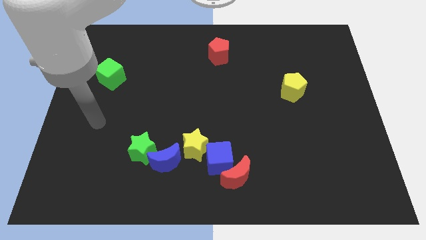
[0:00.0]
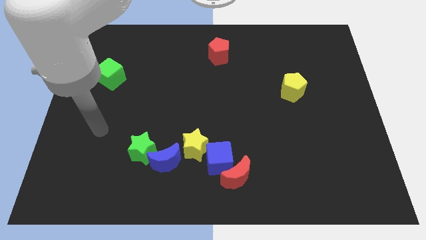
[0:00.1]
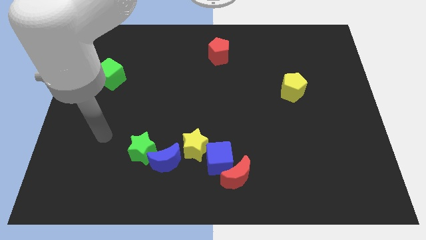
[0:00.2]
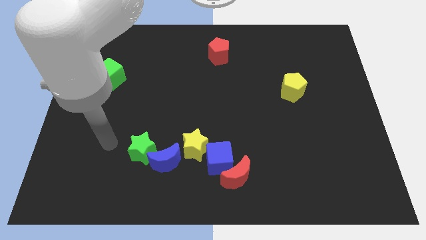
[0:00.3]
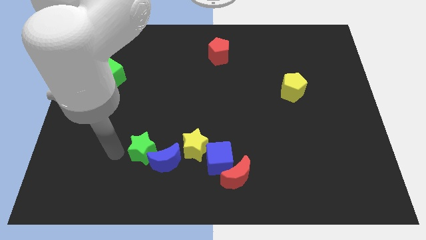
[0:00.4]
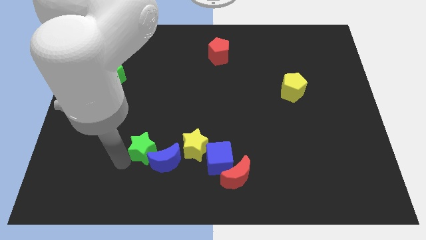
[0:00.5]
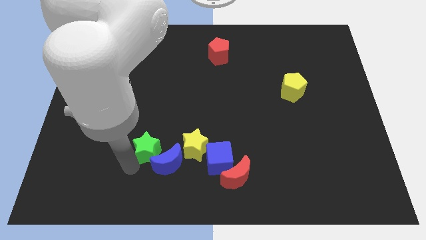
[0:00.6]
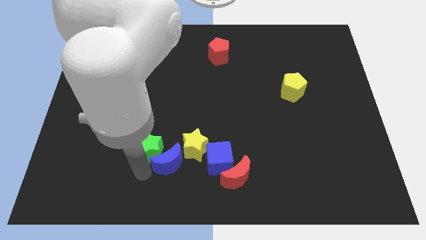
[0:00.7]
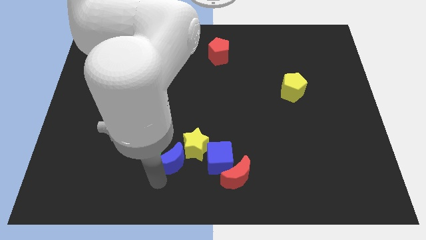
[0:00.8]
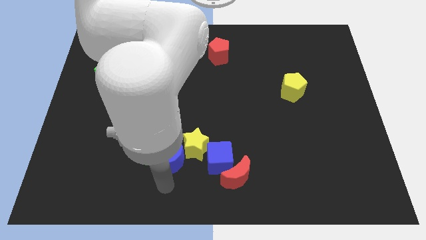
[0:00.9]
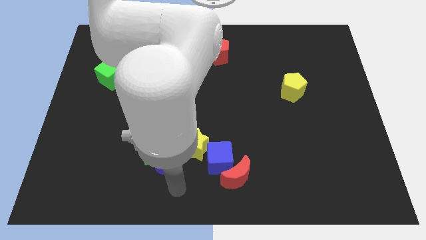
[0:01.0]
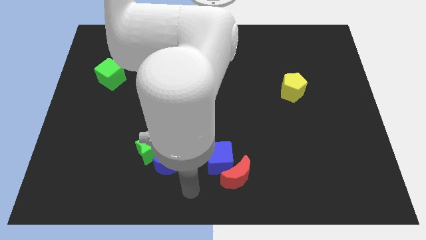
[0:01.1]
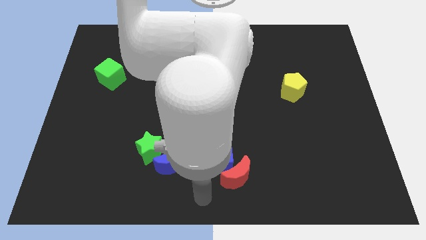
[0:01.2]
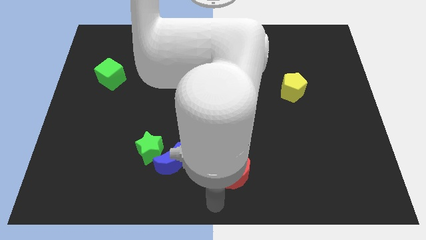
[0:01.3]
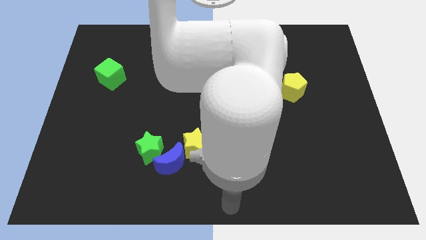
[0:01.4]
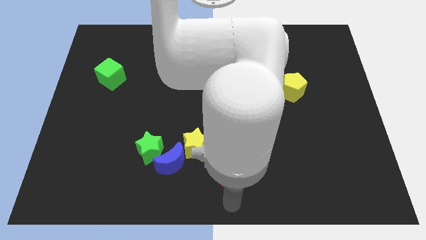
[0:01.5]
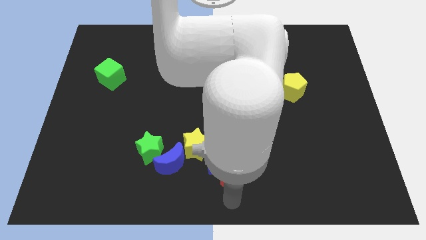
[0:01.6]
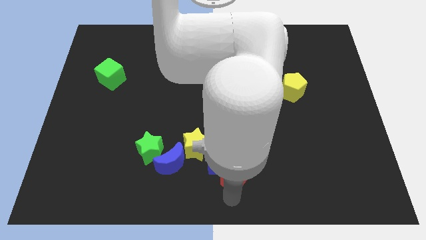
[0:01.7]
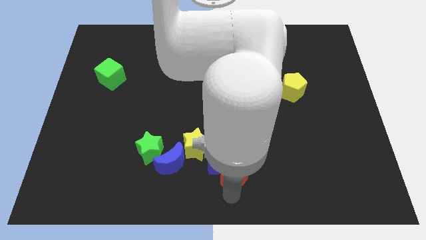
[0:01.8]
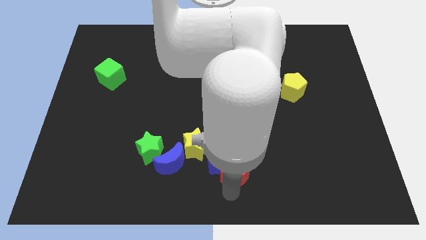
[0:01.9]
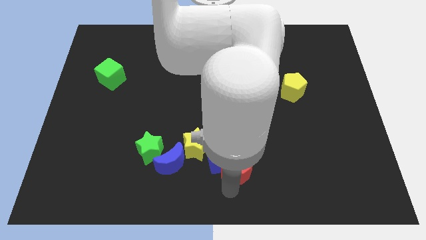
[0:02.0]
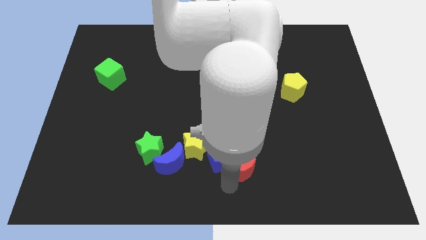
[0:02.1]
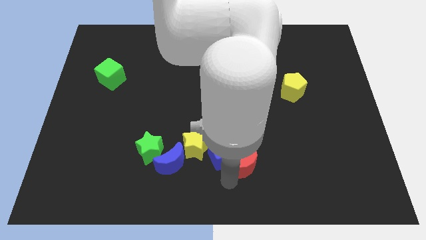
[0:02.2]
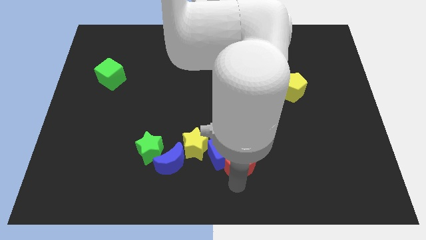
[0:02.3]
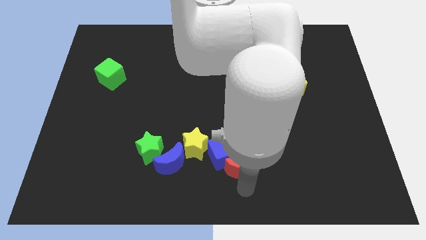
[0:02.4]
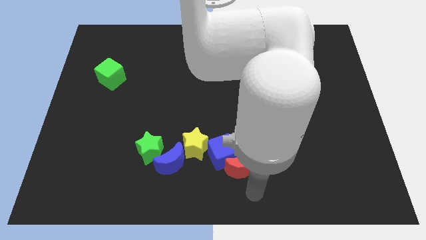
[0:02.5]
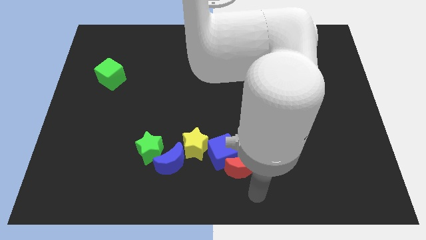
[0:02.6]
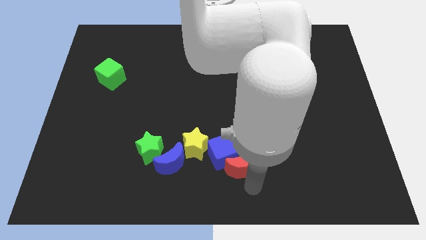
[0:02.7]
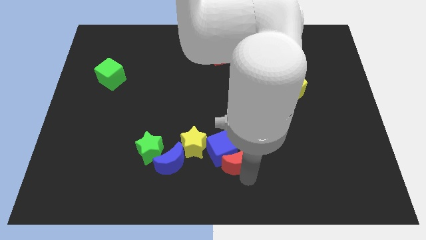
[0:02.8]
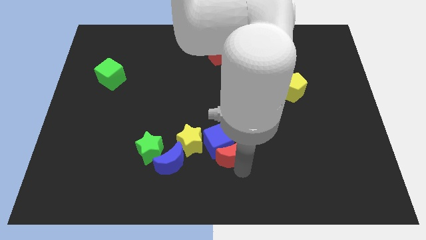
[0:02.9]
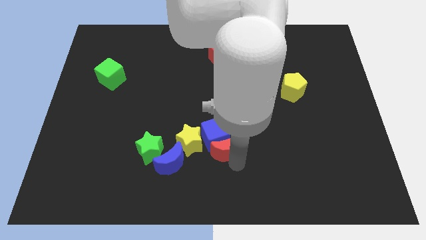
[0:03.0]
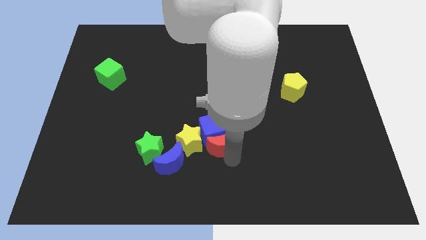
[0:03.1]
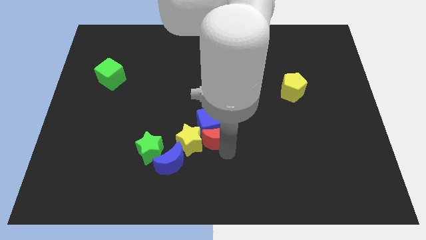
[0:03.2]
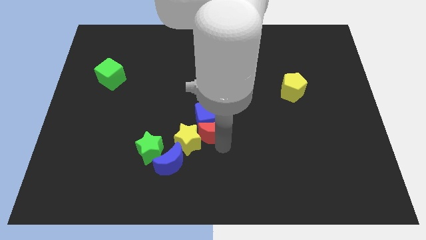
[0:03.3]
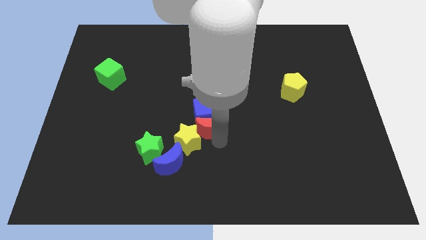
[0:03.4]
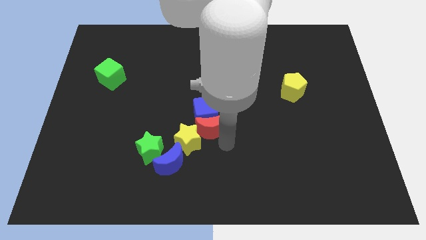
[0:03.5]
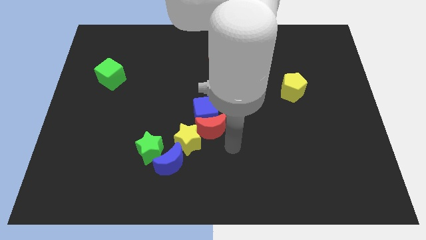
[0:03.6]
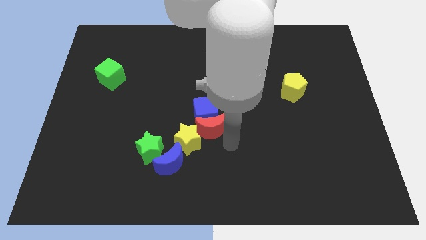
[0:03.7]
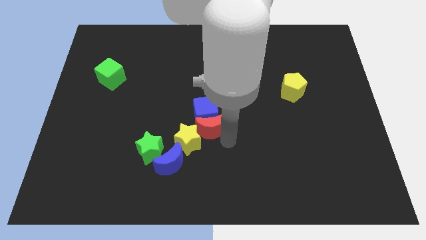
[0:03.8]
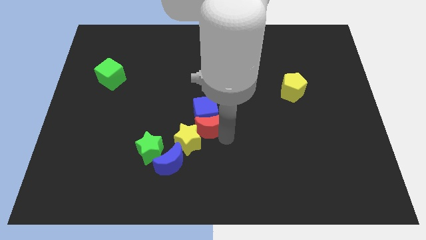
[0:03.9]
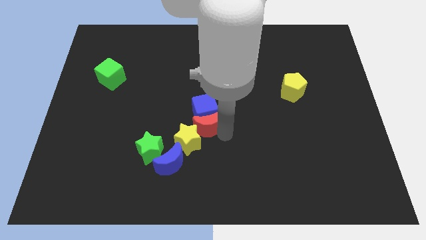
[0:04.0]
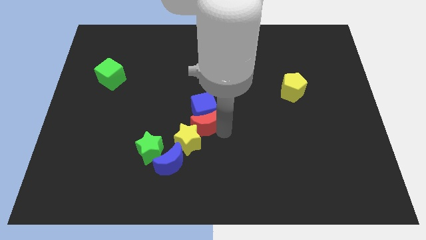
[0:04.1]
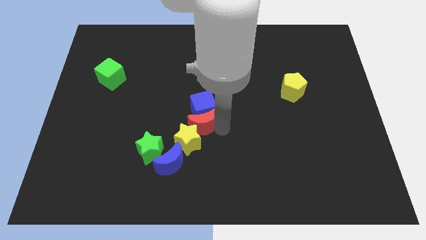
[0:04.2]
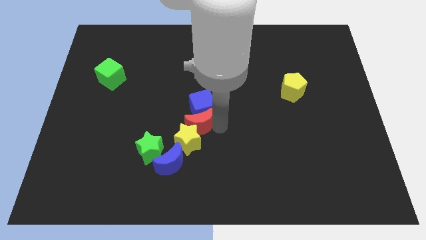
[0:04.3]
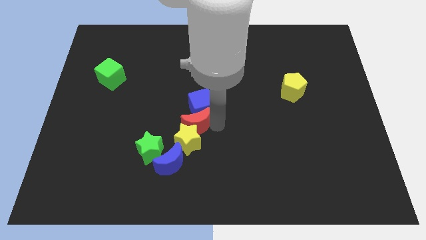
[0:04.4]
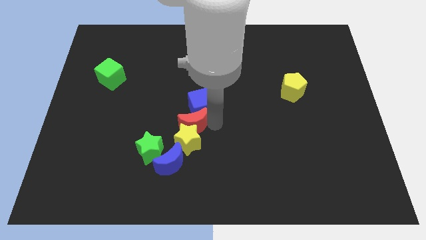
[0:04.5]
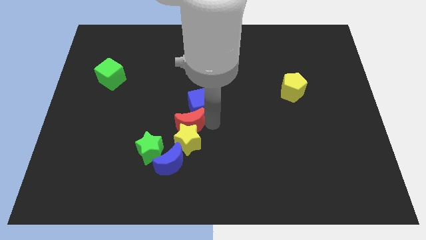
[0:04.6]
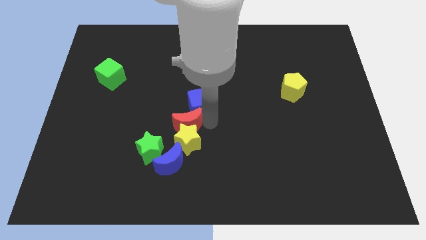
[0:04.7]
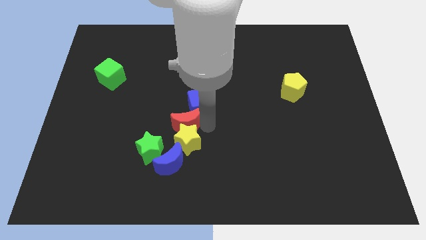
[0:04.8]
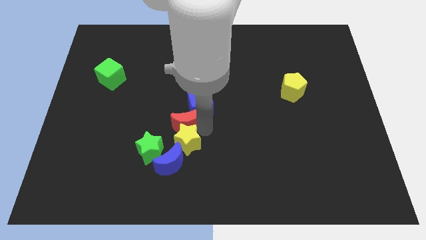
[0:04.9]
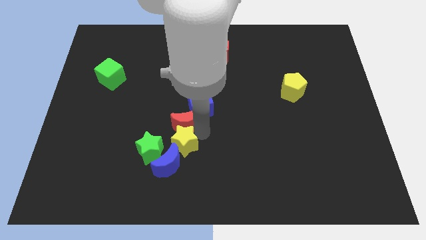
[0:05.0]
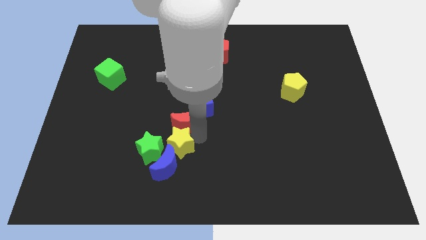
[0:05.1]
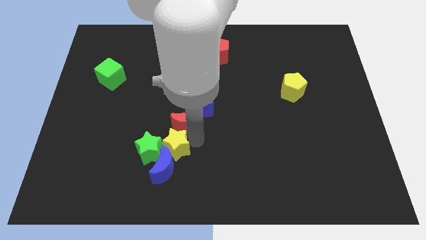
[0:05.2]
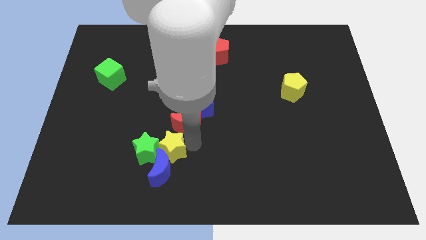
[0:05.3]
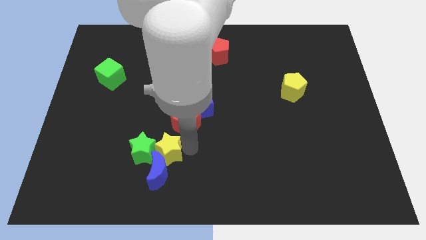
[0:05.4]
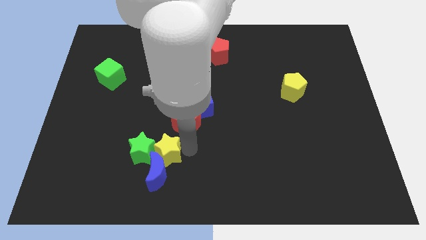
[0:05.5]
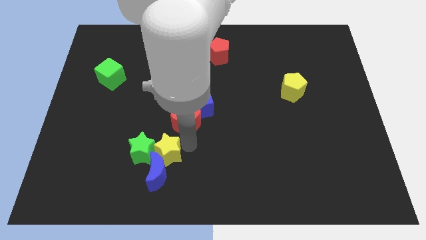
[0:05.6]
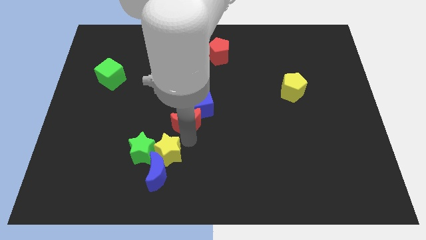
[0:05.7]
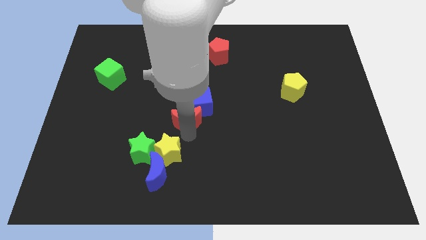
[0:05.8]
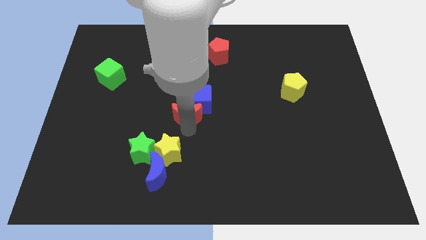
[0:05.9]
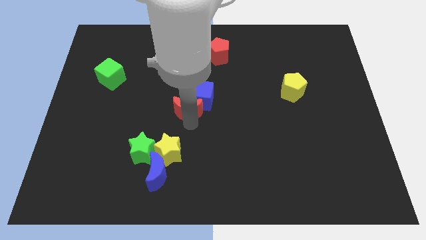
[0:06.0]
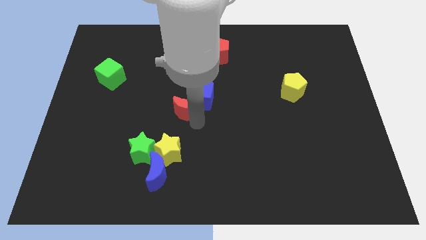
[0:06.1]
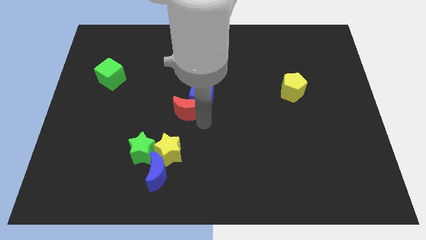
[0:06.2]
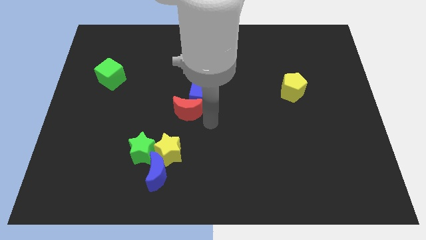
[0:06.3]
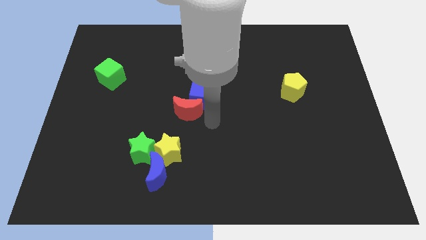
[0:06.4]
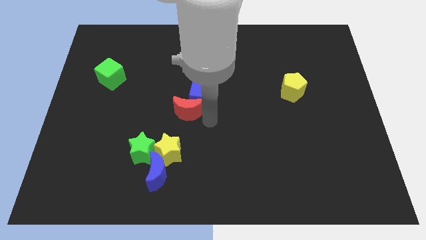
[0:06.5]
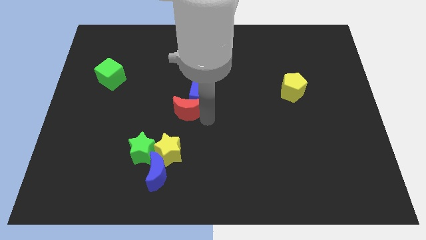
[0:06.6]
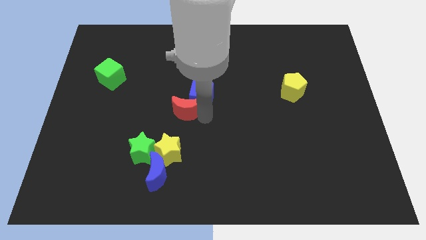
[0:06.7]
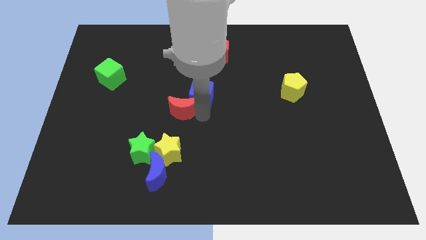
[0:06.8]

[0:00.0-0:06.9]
push the red moon up and to the left diagonally

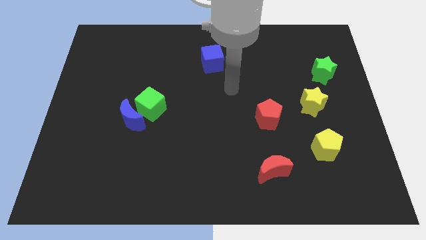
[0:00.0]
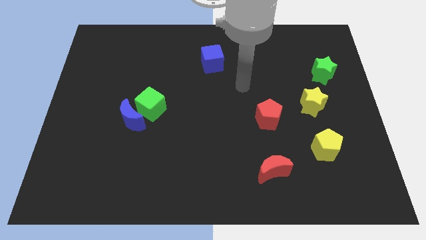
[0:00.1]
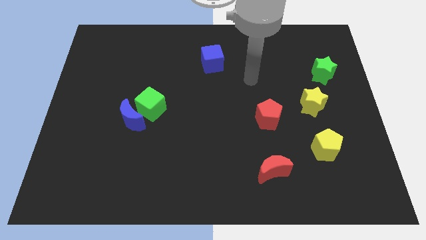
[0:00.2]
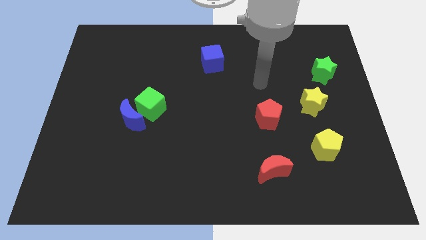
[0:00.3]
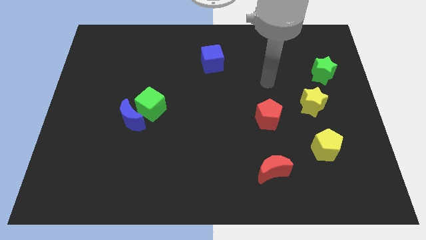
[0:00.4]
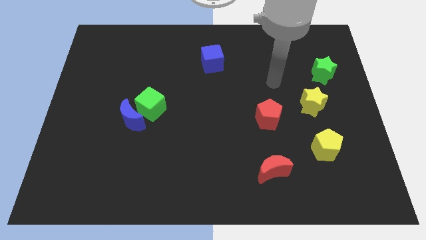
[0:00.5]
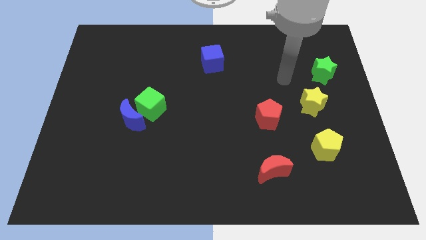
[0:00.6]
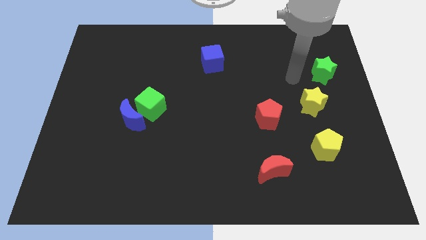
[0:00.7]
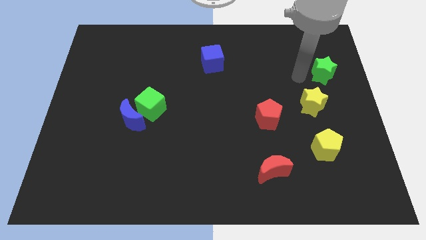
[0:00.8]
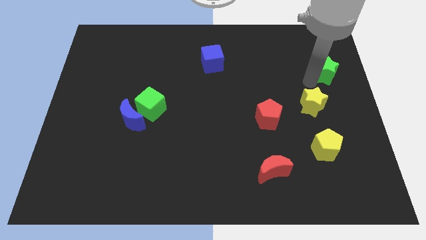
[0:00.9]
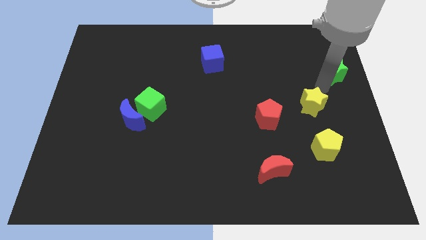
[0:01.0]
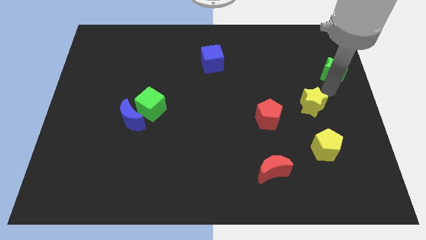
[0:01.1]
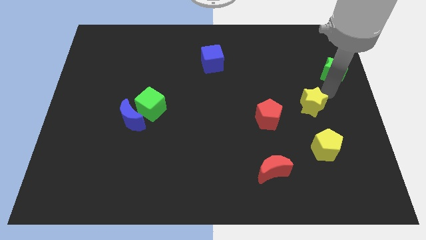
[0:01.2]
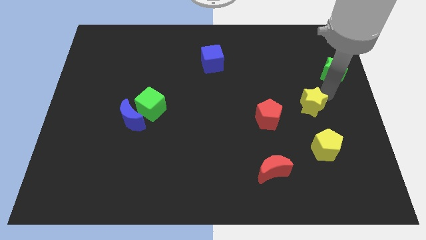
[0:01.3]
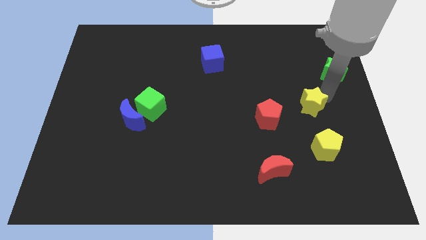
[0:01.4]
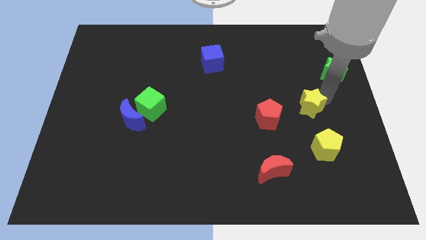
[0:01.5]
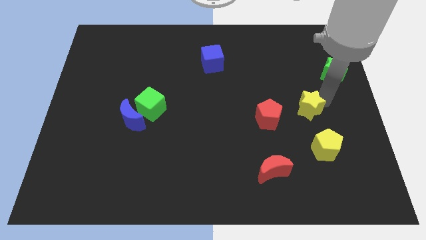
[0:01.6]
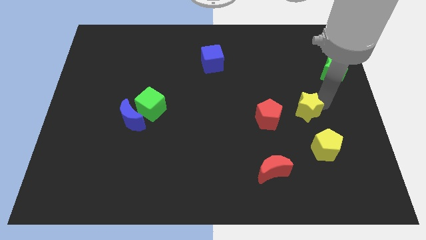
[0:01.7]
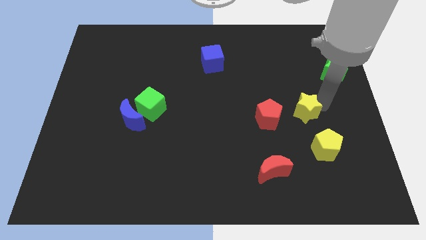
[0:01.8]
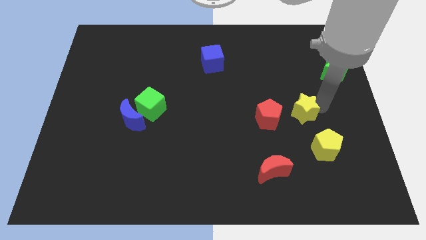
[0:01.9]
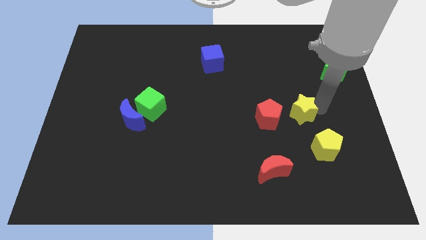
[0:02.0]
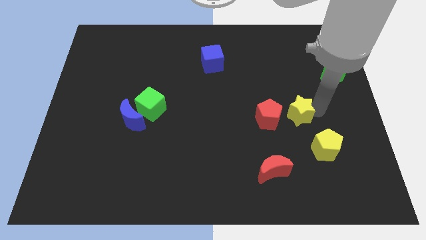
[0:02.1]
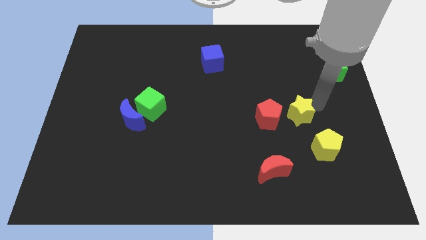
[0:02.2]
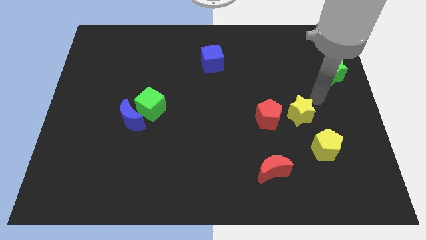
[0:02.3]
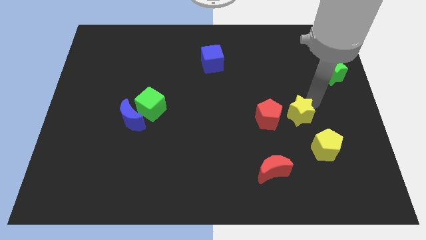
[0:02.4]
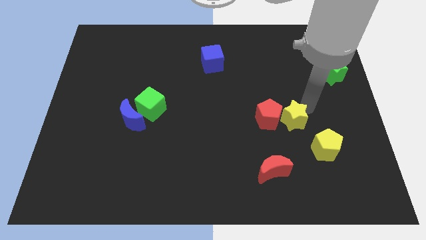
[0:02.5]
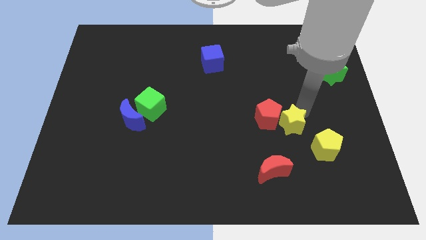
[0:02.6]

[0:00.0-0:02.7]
push the yellow star down and to the left diagonally a little
